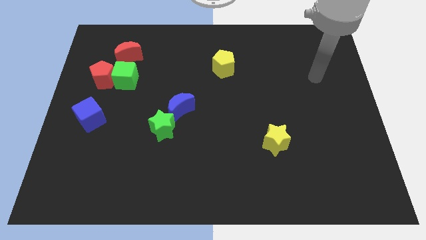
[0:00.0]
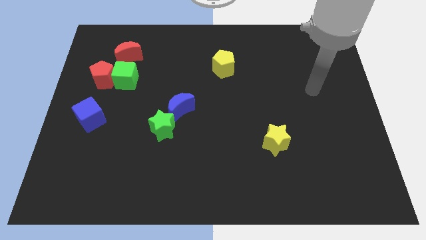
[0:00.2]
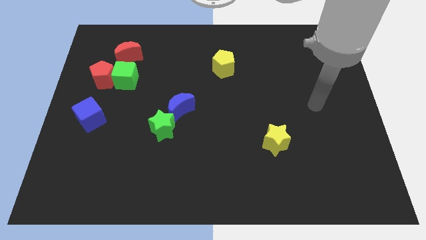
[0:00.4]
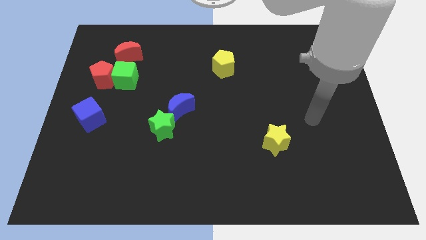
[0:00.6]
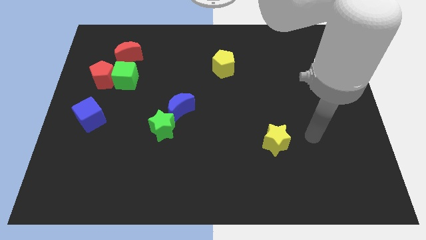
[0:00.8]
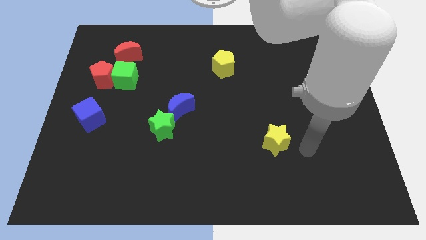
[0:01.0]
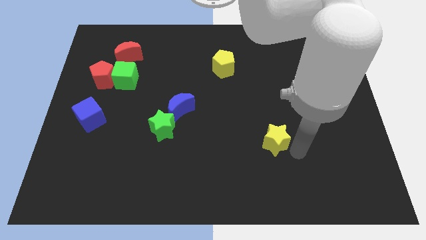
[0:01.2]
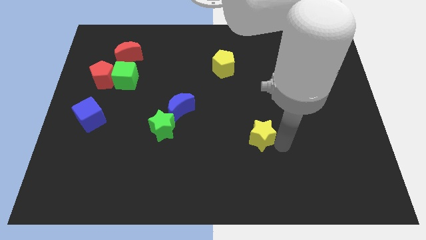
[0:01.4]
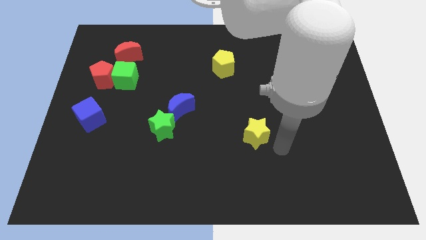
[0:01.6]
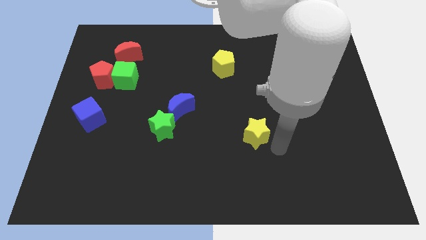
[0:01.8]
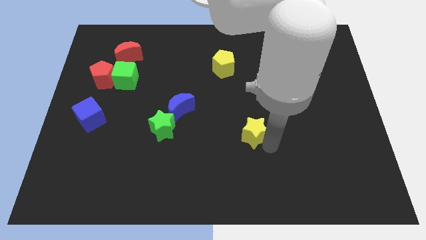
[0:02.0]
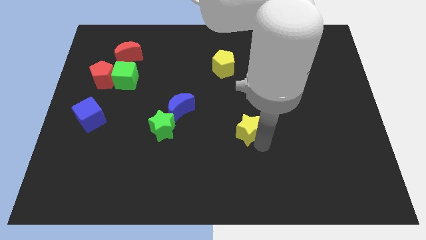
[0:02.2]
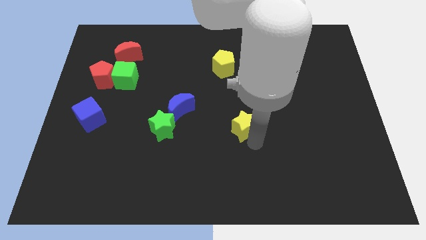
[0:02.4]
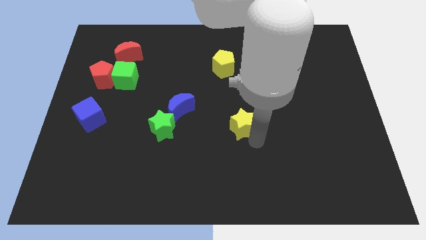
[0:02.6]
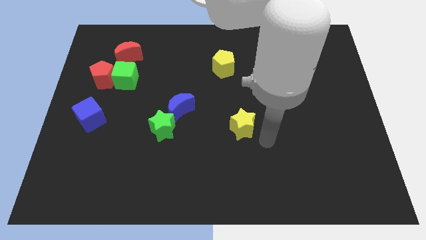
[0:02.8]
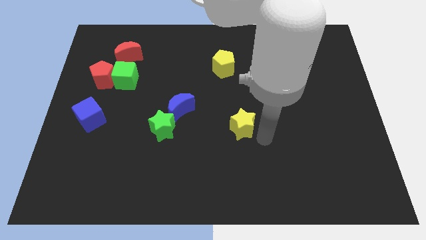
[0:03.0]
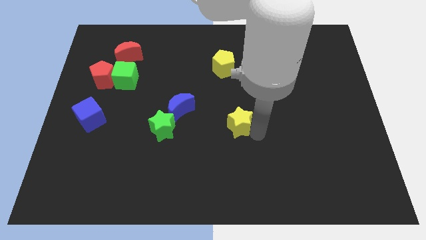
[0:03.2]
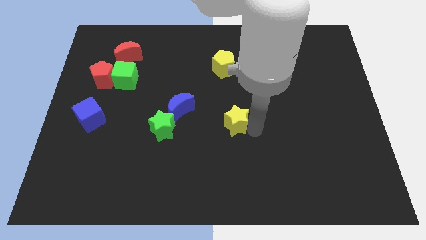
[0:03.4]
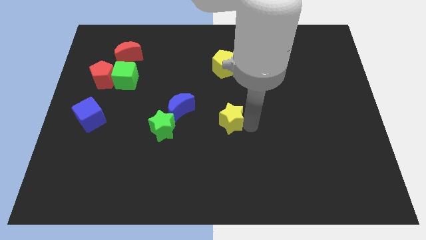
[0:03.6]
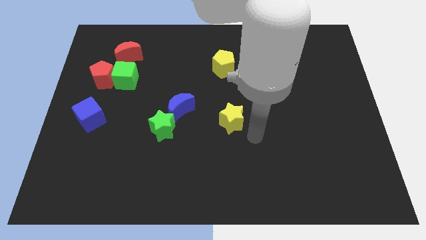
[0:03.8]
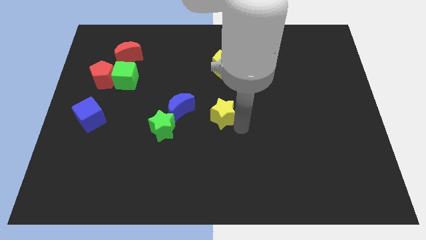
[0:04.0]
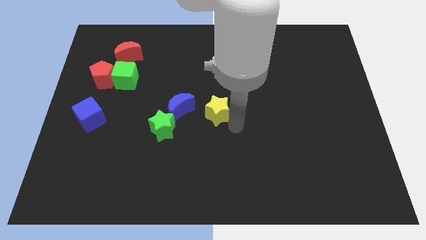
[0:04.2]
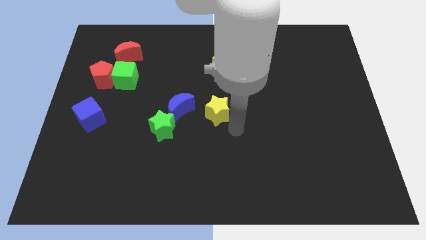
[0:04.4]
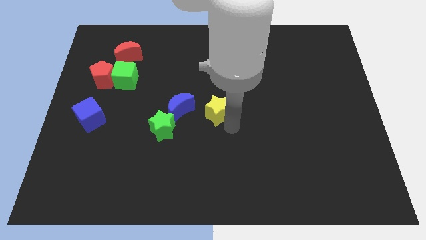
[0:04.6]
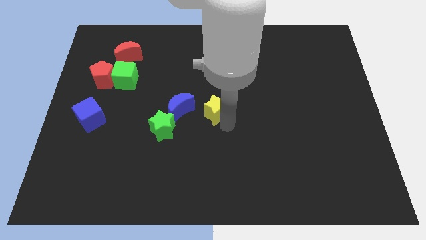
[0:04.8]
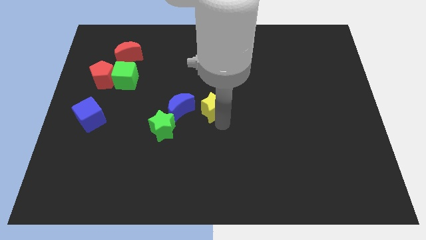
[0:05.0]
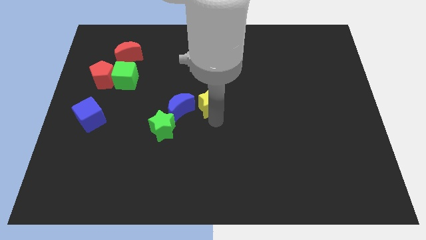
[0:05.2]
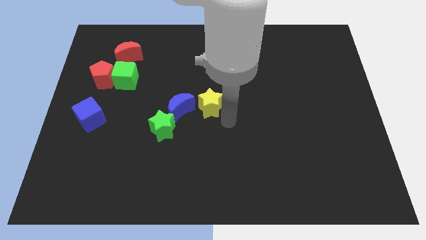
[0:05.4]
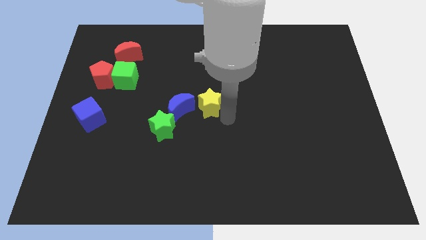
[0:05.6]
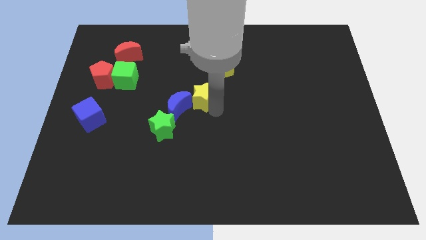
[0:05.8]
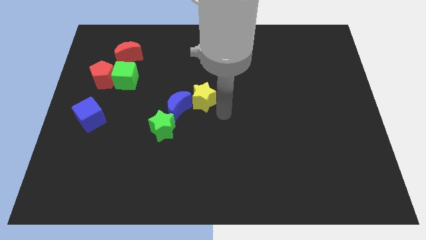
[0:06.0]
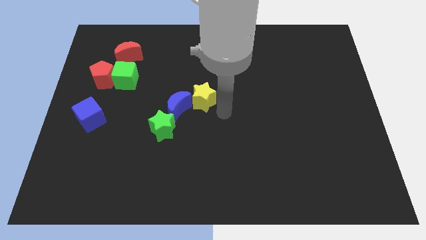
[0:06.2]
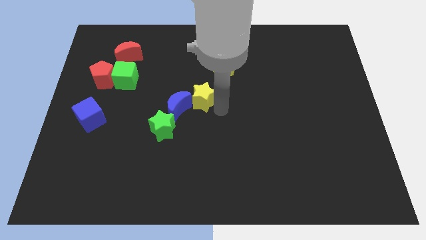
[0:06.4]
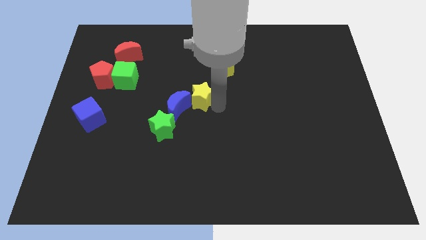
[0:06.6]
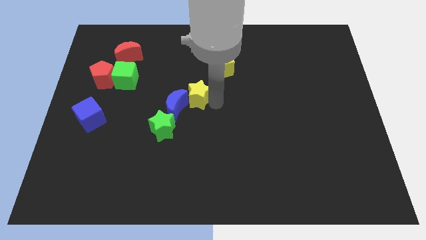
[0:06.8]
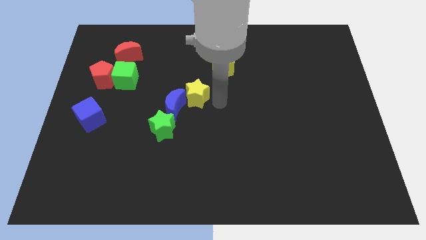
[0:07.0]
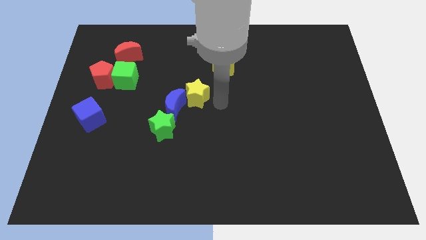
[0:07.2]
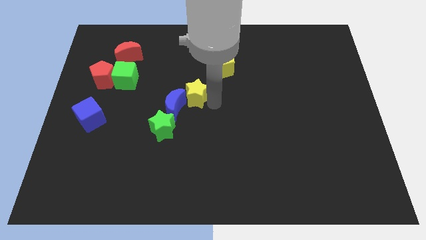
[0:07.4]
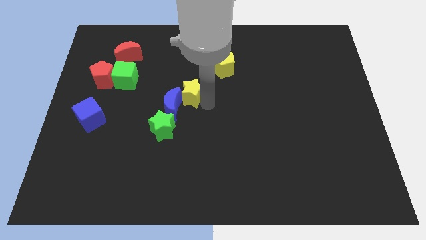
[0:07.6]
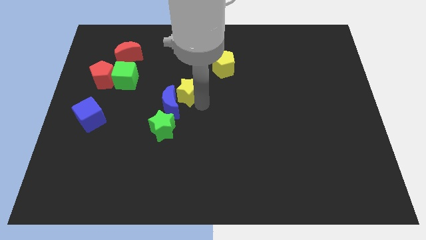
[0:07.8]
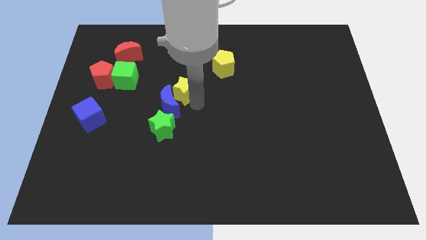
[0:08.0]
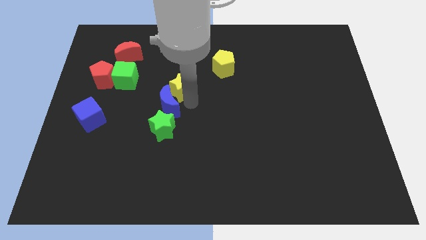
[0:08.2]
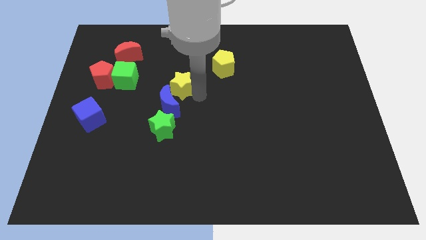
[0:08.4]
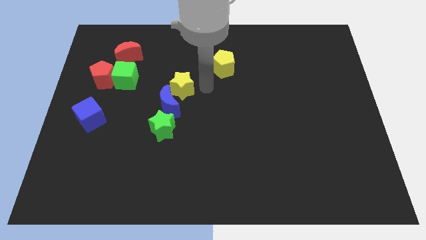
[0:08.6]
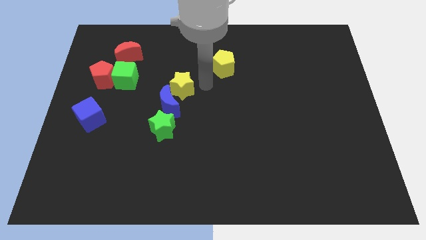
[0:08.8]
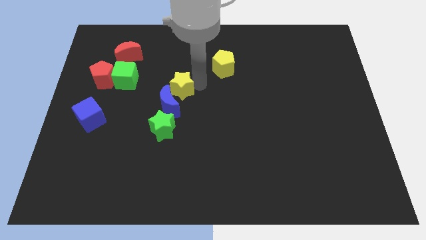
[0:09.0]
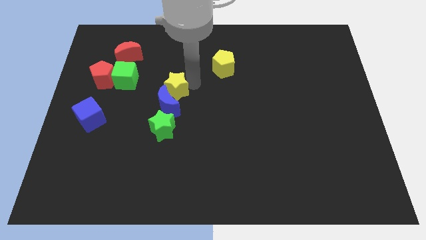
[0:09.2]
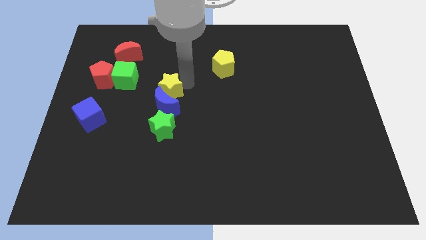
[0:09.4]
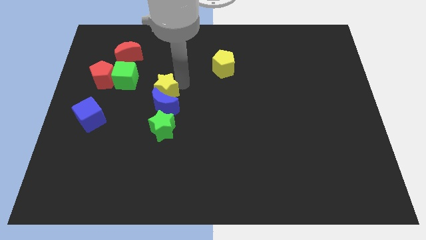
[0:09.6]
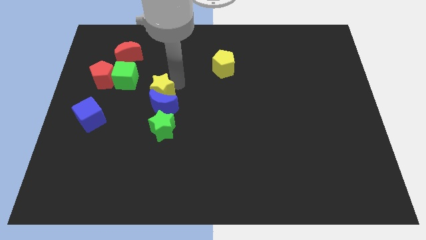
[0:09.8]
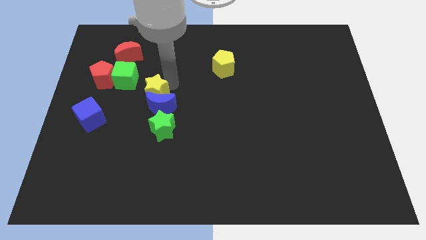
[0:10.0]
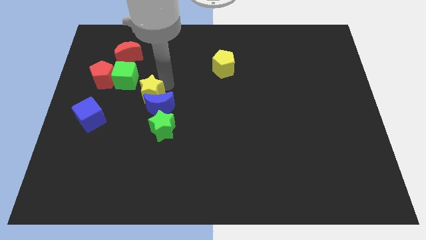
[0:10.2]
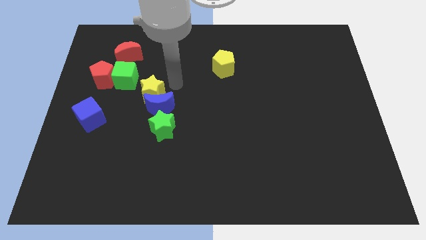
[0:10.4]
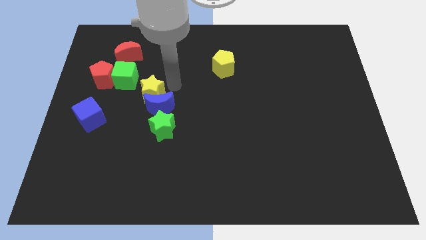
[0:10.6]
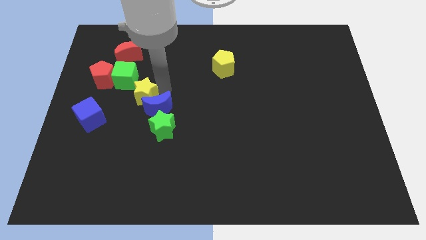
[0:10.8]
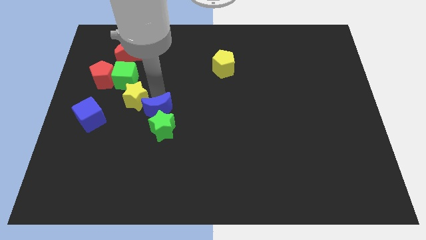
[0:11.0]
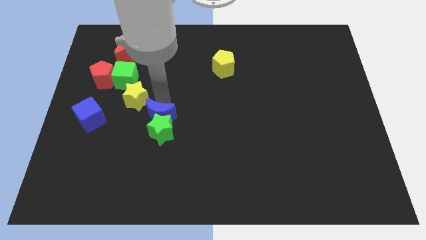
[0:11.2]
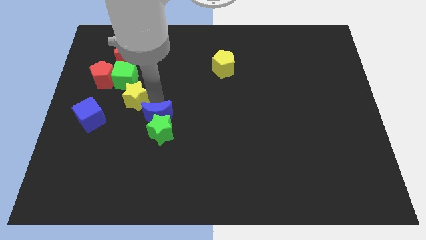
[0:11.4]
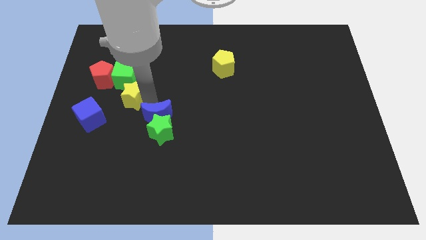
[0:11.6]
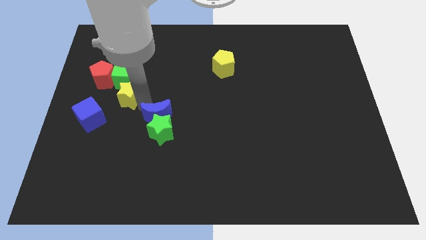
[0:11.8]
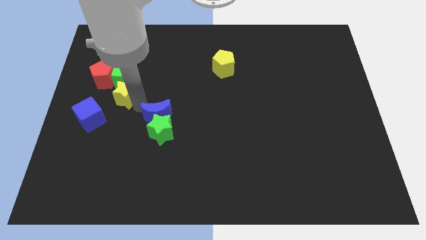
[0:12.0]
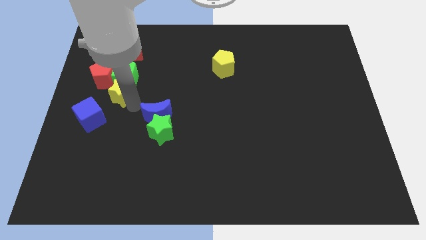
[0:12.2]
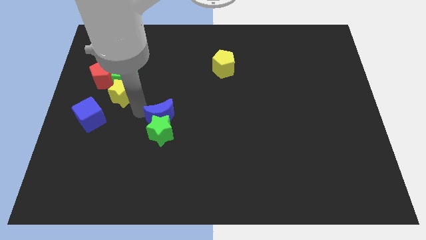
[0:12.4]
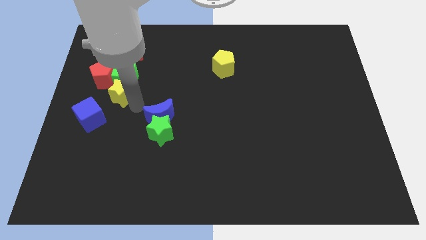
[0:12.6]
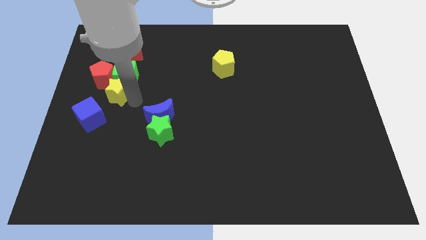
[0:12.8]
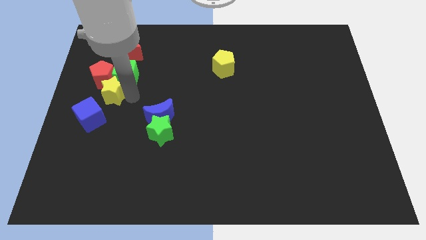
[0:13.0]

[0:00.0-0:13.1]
push the yellow star close to the red pentagon

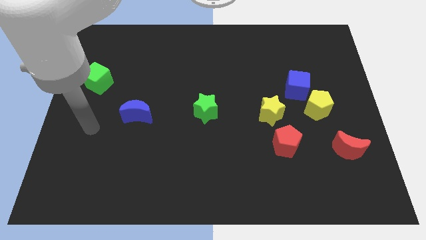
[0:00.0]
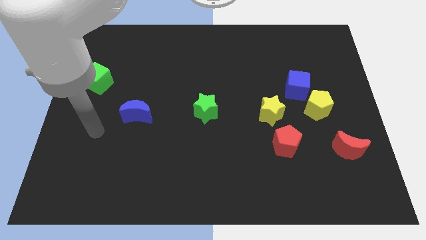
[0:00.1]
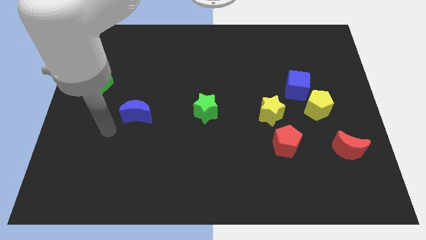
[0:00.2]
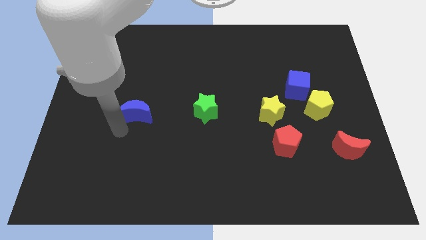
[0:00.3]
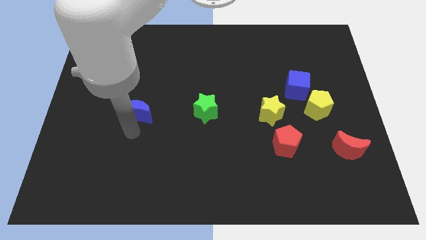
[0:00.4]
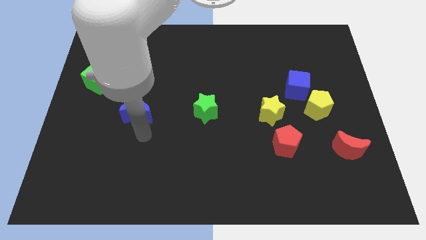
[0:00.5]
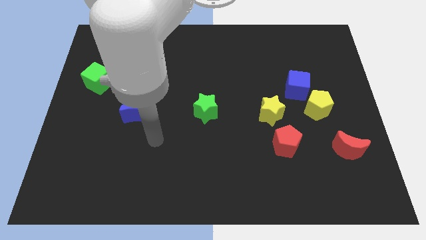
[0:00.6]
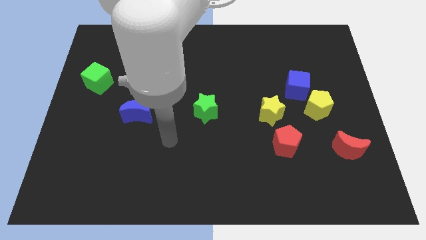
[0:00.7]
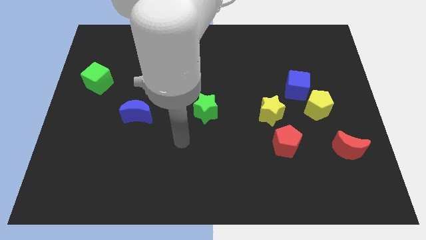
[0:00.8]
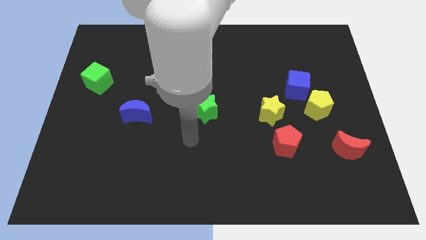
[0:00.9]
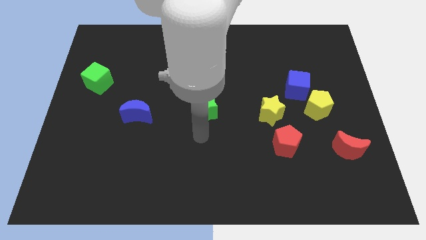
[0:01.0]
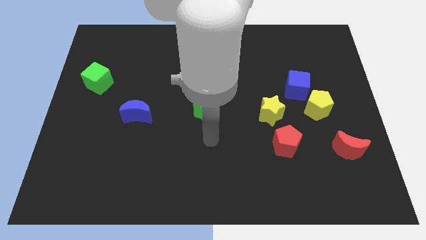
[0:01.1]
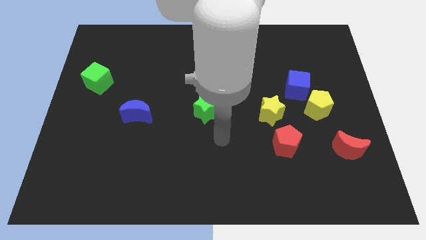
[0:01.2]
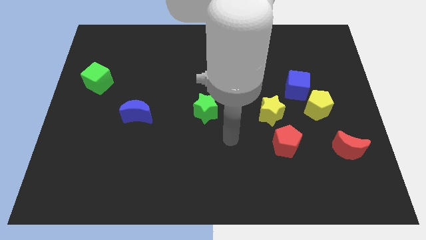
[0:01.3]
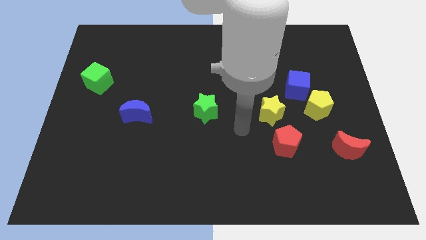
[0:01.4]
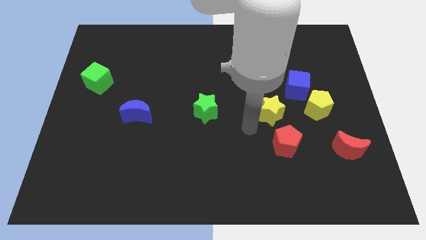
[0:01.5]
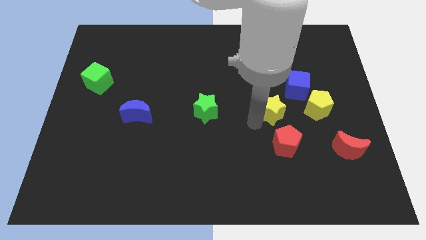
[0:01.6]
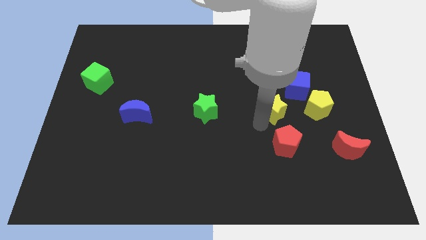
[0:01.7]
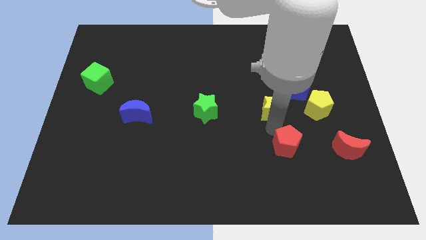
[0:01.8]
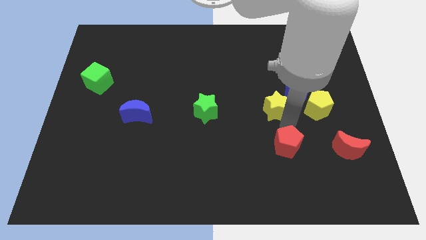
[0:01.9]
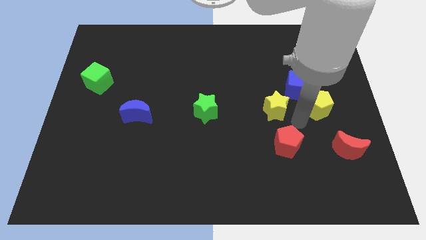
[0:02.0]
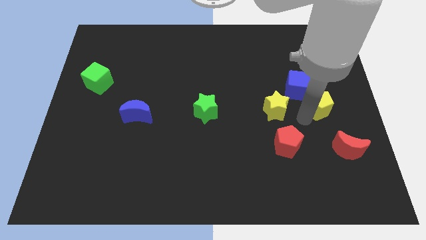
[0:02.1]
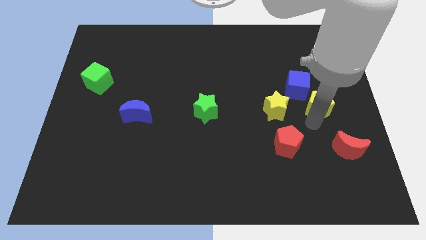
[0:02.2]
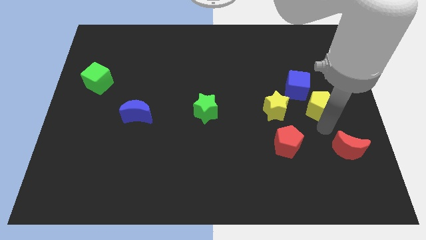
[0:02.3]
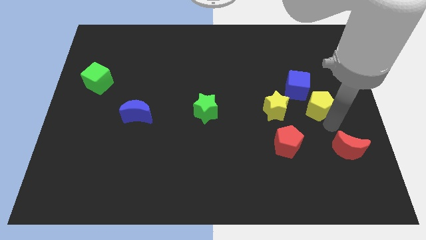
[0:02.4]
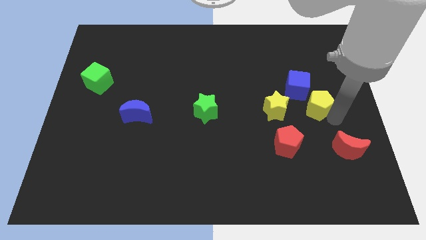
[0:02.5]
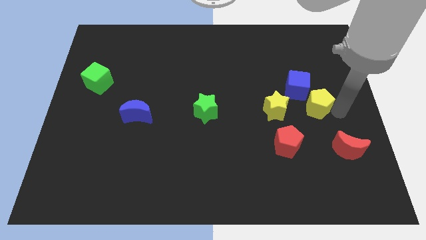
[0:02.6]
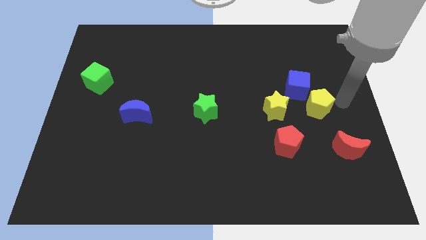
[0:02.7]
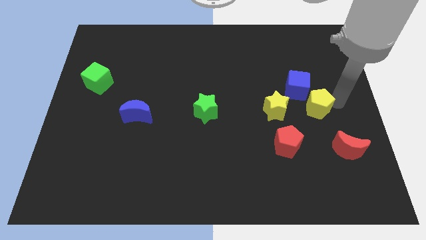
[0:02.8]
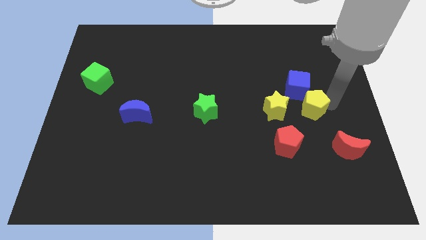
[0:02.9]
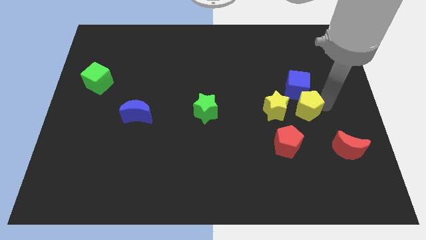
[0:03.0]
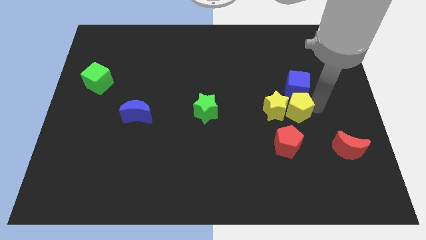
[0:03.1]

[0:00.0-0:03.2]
push the yellow pentagon to the yellow star
